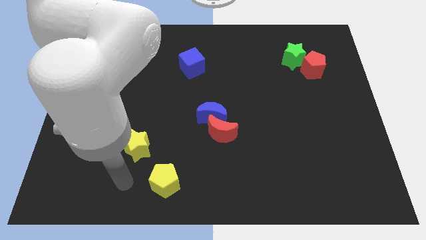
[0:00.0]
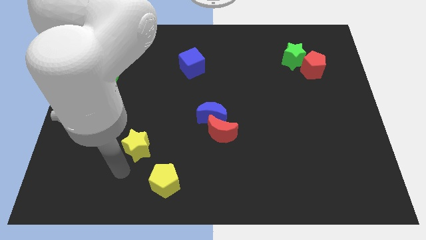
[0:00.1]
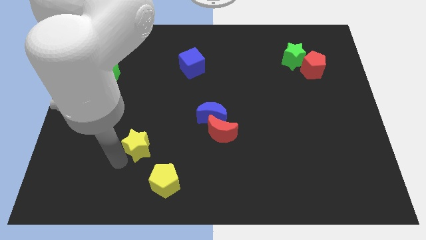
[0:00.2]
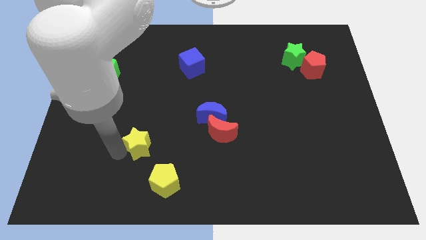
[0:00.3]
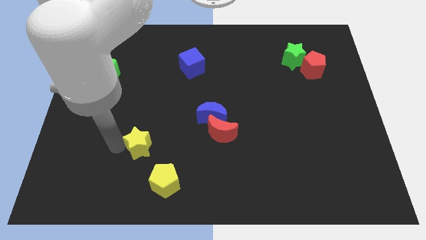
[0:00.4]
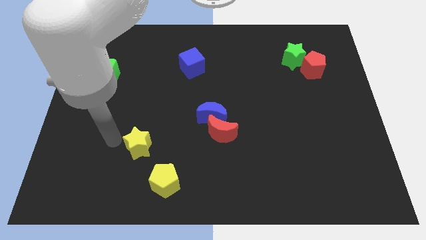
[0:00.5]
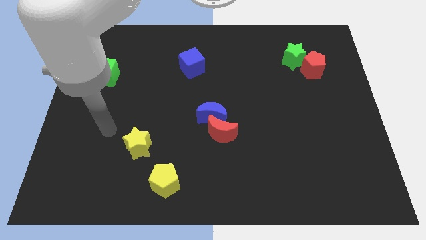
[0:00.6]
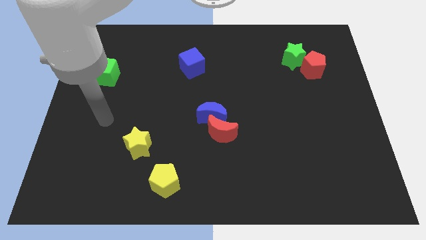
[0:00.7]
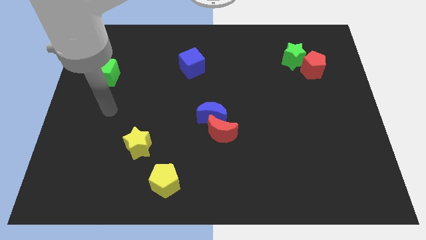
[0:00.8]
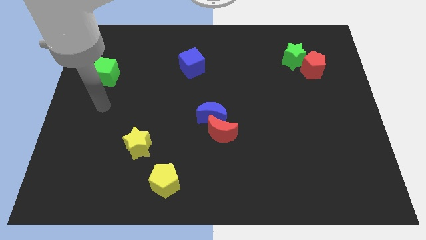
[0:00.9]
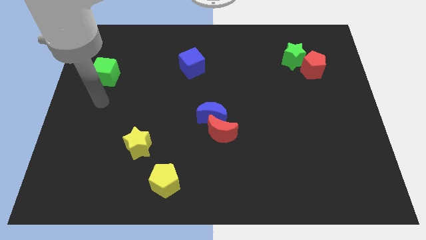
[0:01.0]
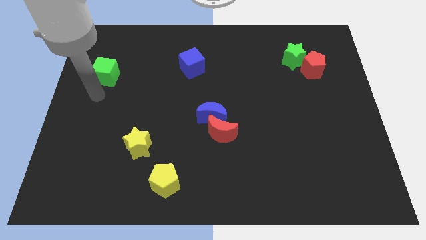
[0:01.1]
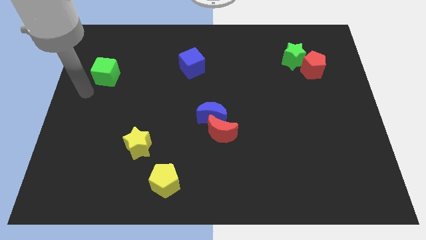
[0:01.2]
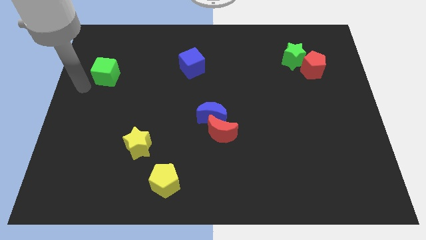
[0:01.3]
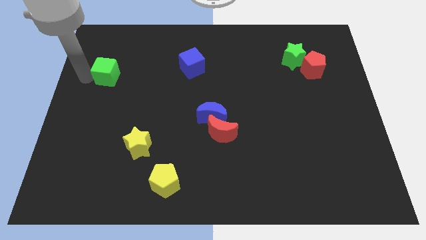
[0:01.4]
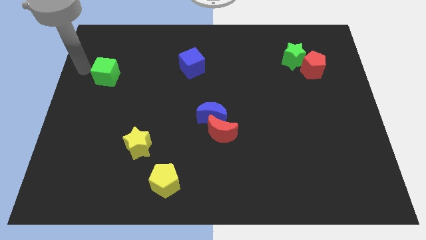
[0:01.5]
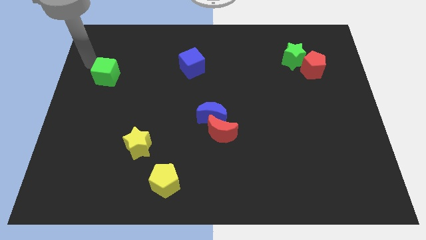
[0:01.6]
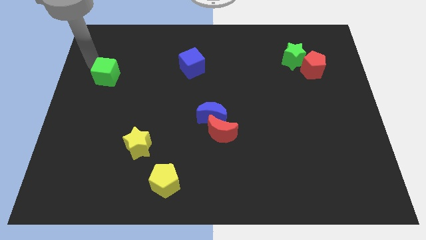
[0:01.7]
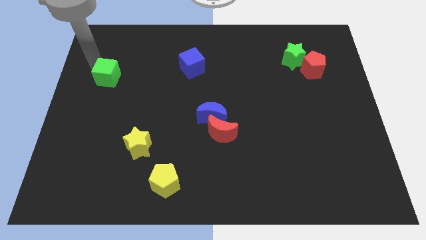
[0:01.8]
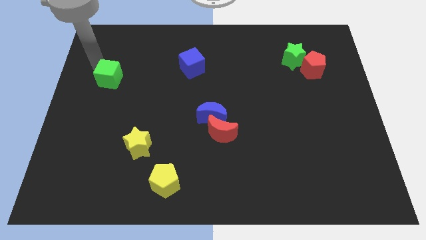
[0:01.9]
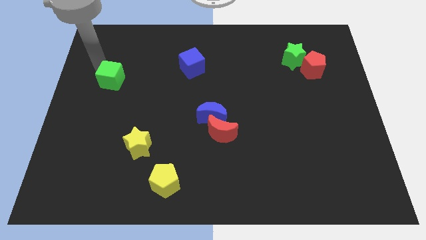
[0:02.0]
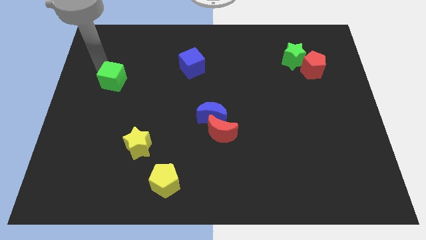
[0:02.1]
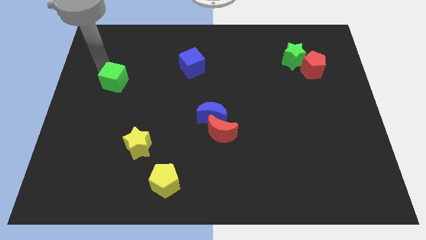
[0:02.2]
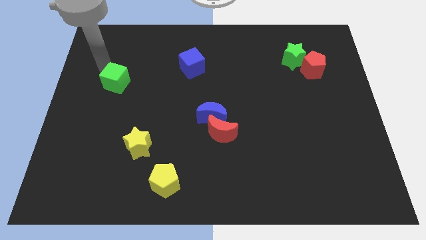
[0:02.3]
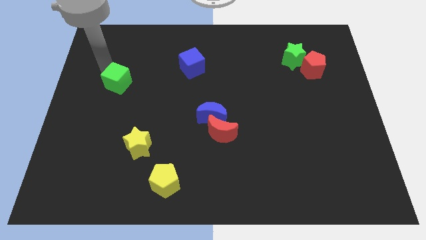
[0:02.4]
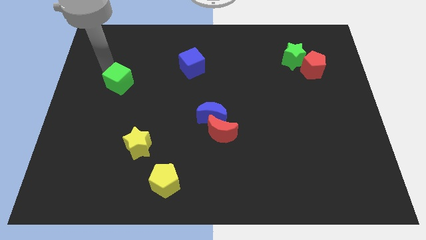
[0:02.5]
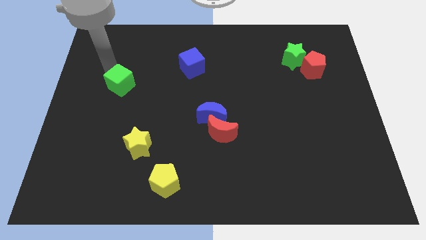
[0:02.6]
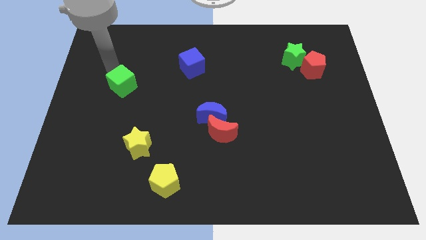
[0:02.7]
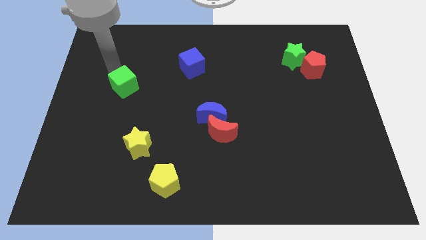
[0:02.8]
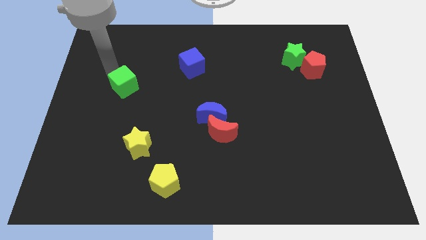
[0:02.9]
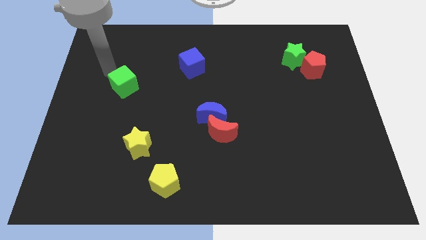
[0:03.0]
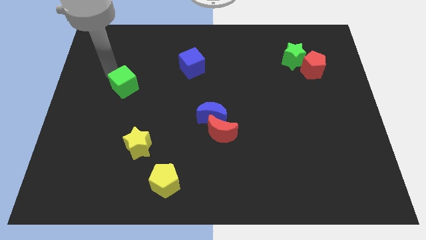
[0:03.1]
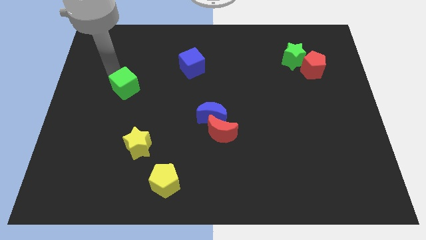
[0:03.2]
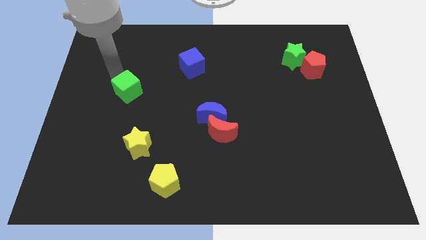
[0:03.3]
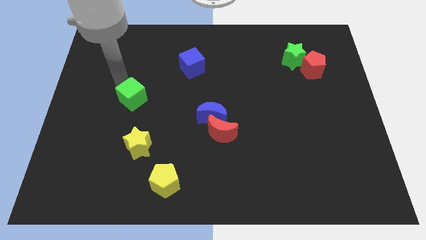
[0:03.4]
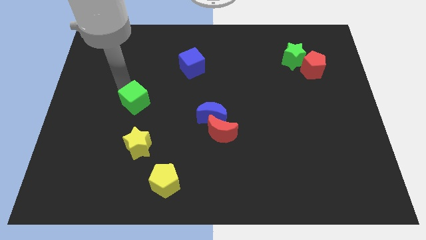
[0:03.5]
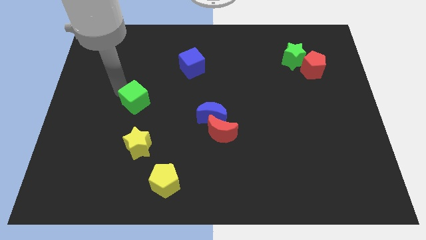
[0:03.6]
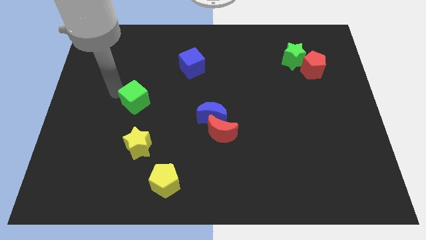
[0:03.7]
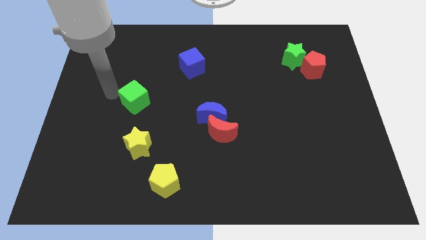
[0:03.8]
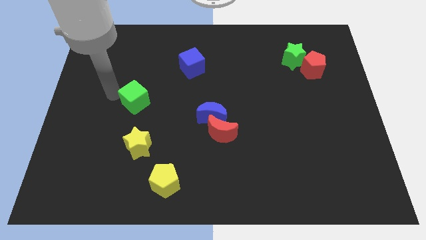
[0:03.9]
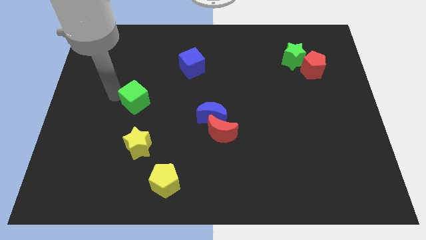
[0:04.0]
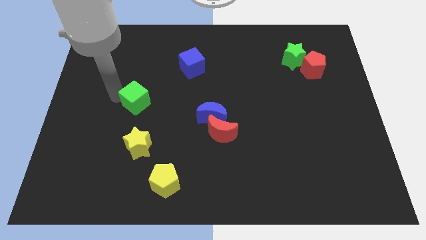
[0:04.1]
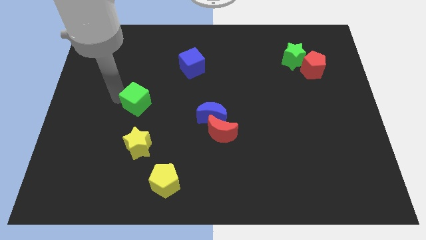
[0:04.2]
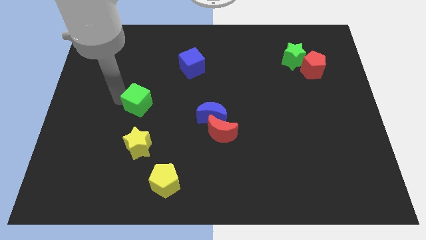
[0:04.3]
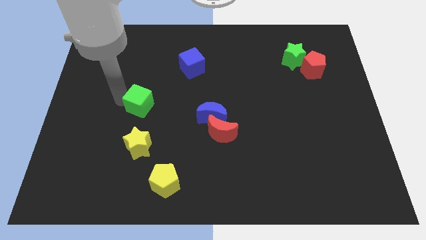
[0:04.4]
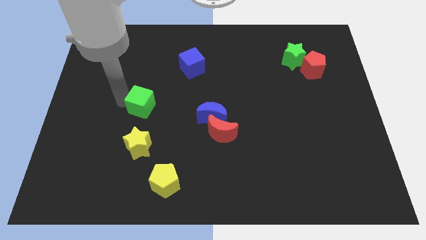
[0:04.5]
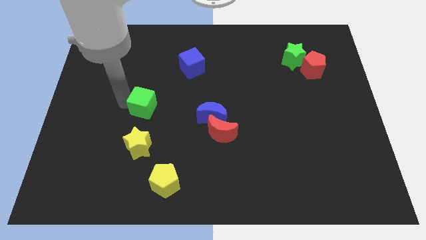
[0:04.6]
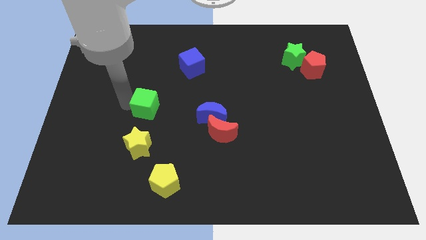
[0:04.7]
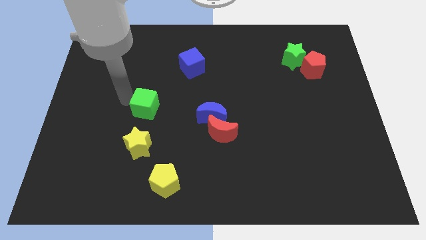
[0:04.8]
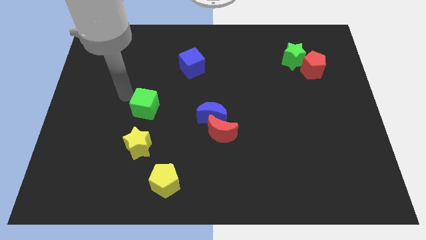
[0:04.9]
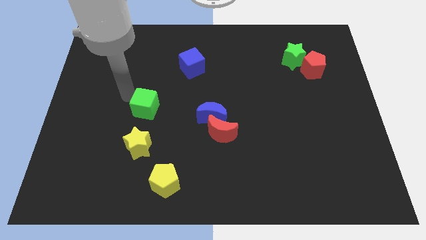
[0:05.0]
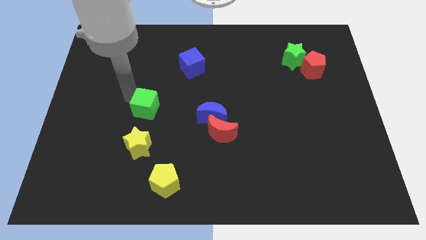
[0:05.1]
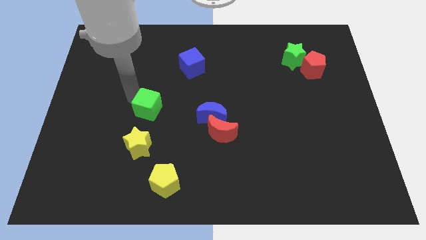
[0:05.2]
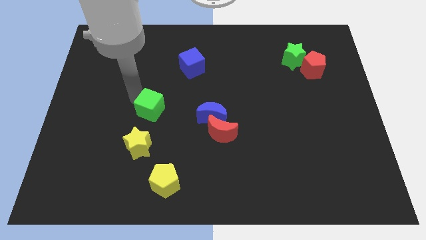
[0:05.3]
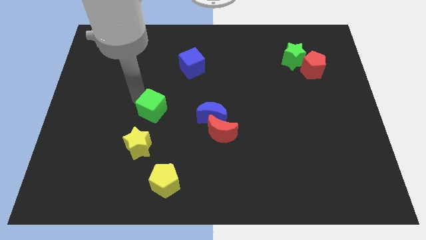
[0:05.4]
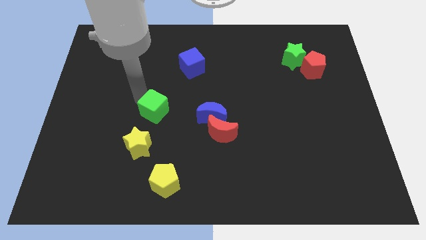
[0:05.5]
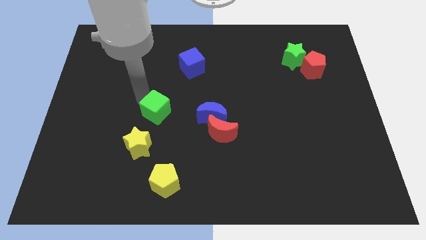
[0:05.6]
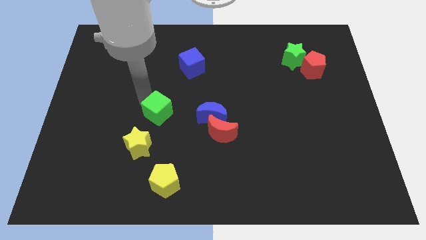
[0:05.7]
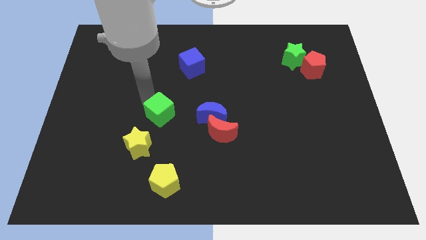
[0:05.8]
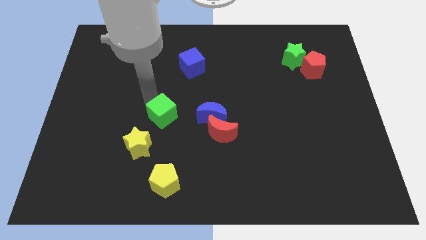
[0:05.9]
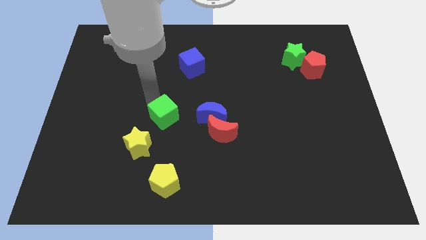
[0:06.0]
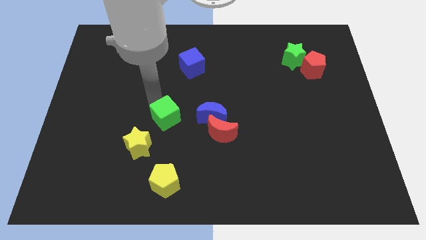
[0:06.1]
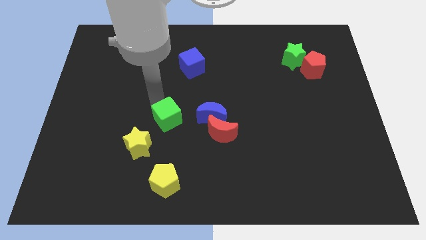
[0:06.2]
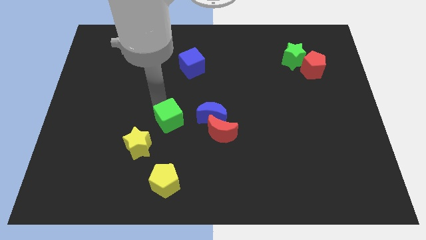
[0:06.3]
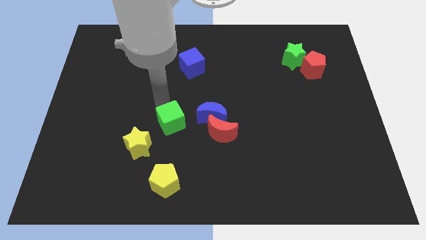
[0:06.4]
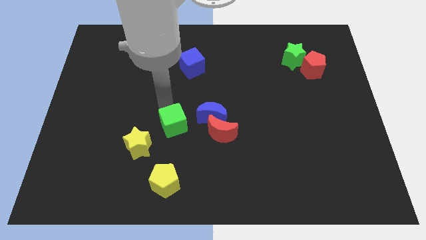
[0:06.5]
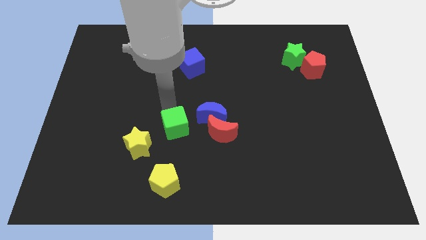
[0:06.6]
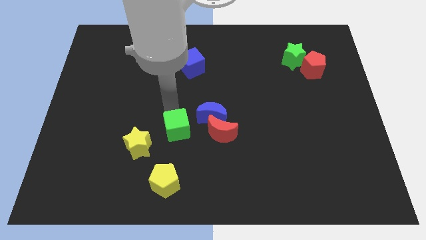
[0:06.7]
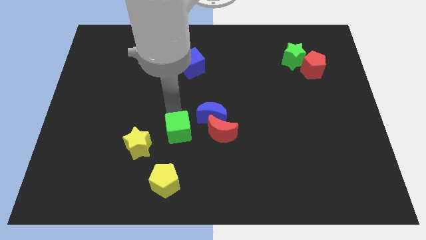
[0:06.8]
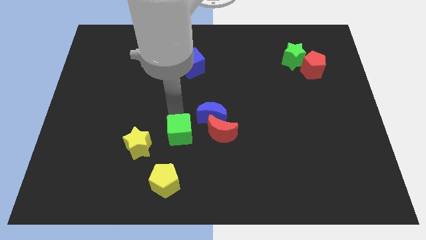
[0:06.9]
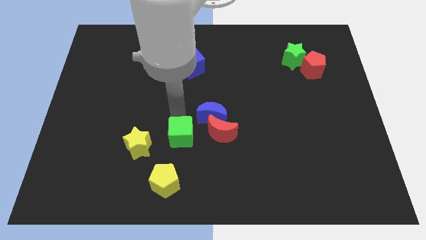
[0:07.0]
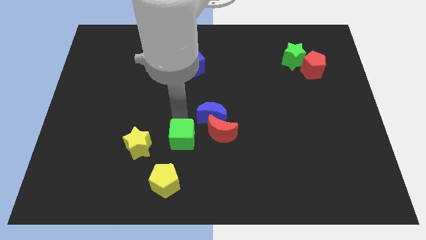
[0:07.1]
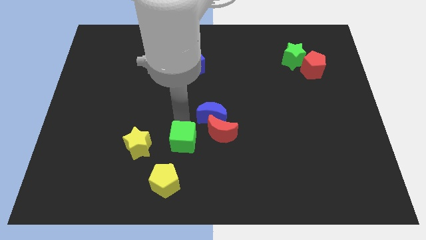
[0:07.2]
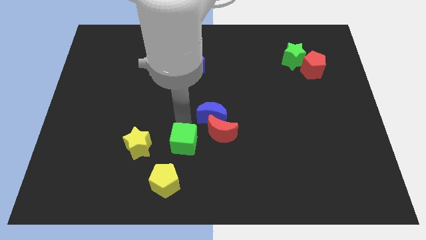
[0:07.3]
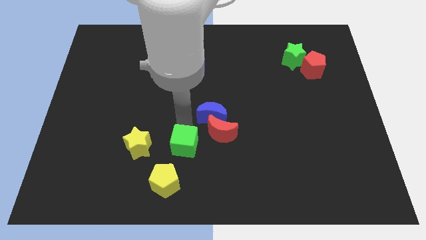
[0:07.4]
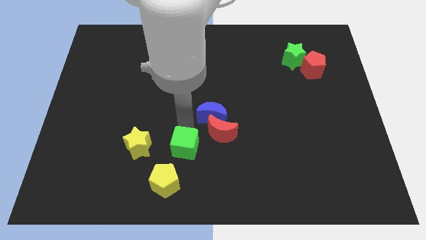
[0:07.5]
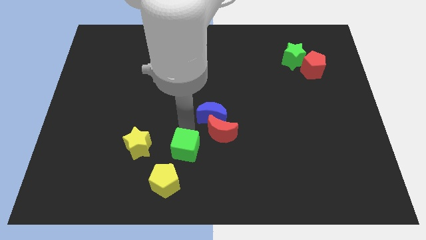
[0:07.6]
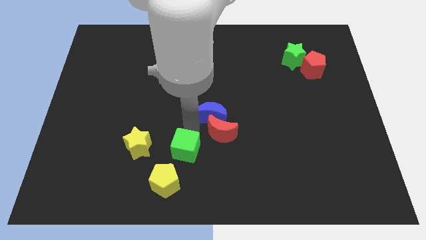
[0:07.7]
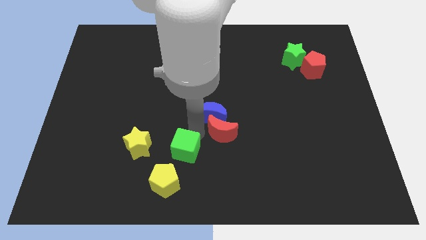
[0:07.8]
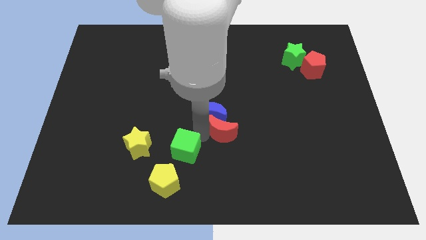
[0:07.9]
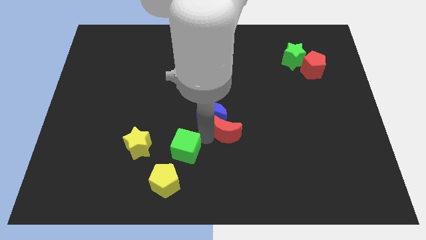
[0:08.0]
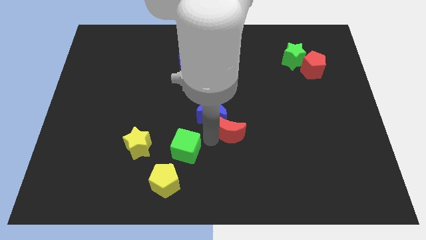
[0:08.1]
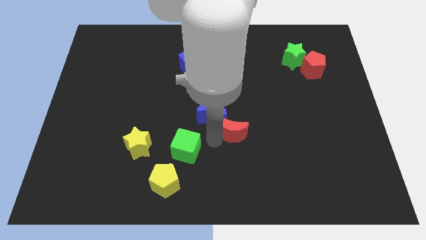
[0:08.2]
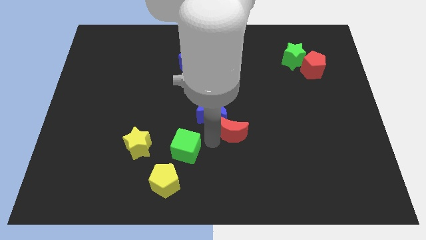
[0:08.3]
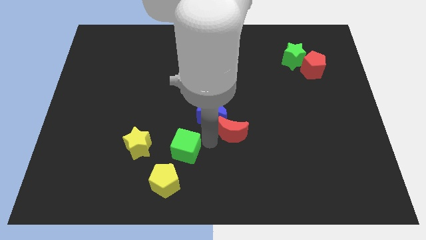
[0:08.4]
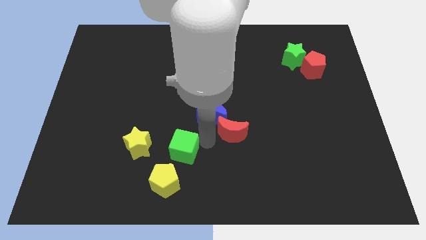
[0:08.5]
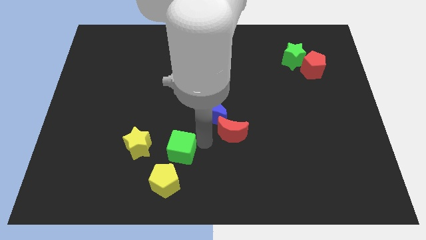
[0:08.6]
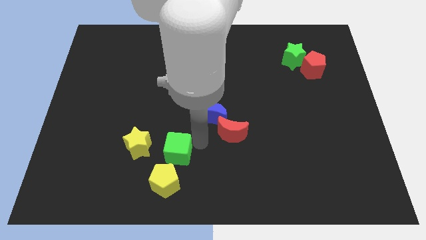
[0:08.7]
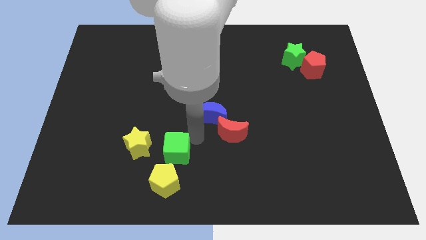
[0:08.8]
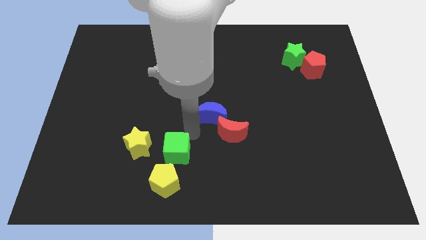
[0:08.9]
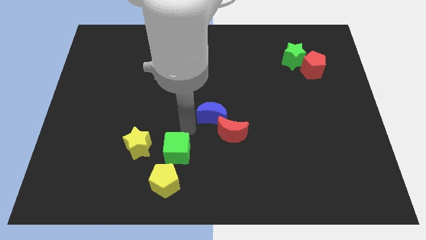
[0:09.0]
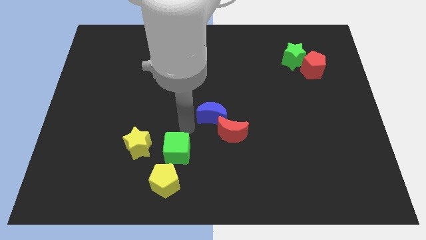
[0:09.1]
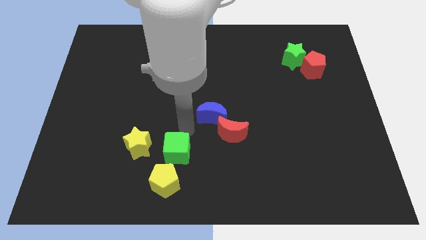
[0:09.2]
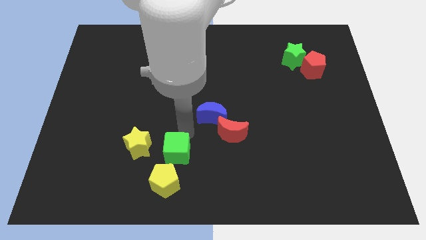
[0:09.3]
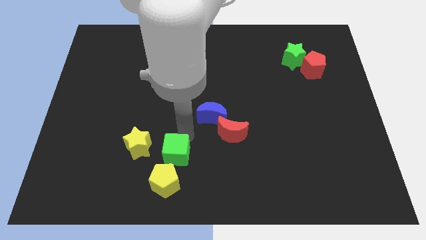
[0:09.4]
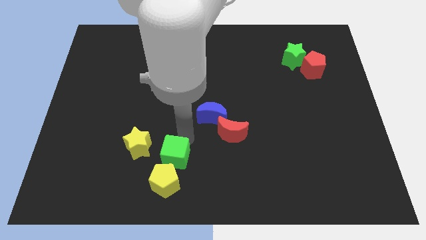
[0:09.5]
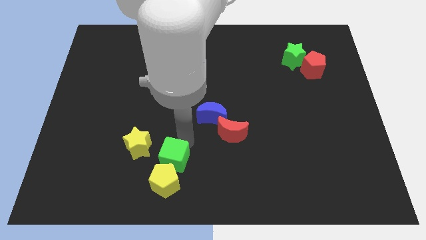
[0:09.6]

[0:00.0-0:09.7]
push the green cube next to the yellow pentagon
